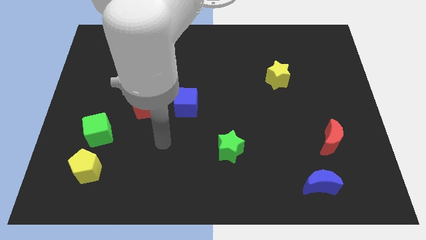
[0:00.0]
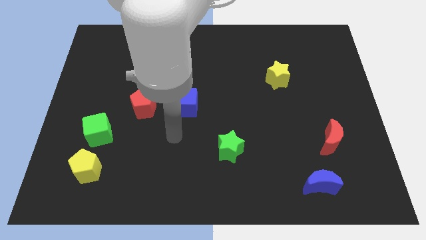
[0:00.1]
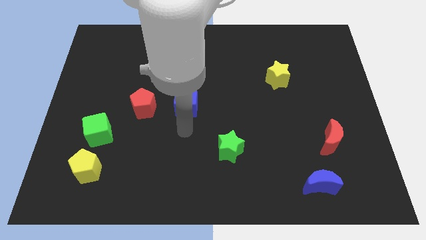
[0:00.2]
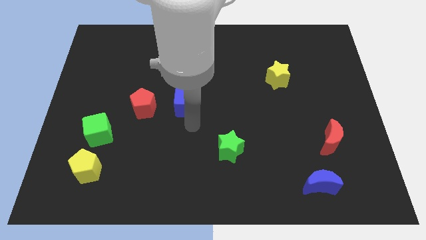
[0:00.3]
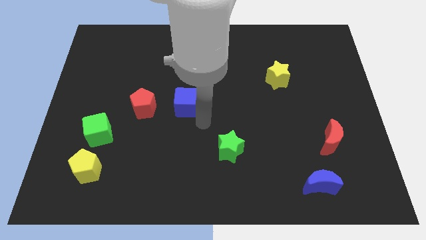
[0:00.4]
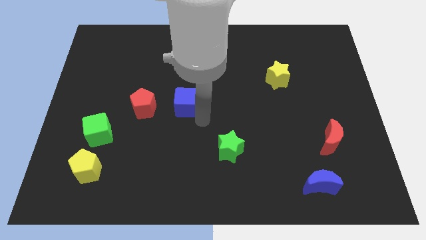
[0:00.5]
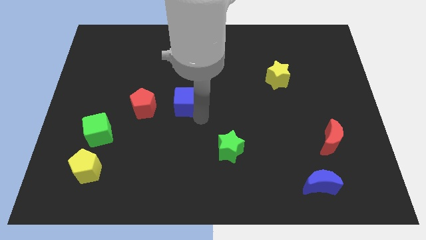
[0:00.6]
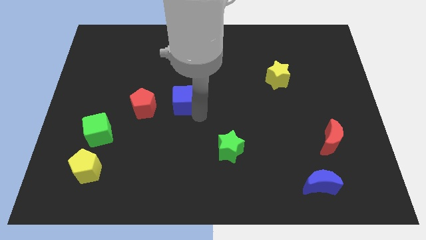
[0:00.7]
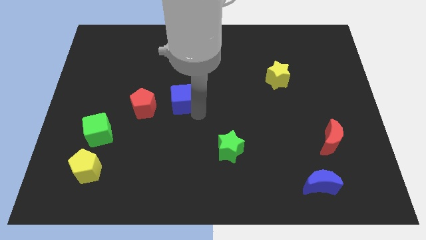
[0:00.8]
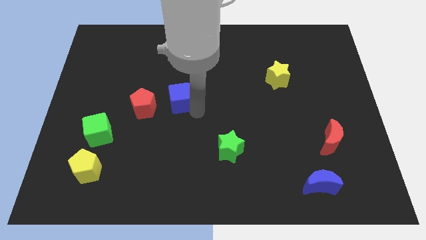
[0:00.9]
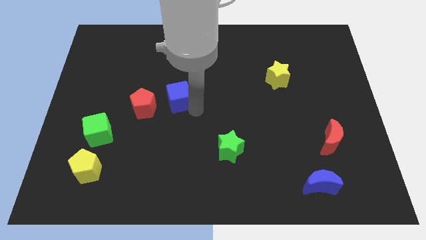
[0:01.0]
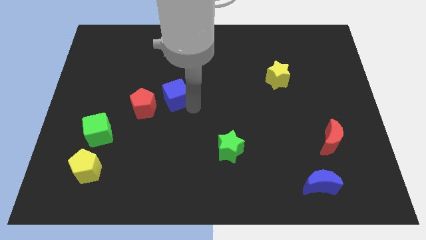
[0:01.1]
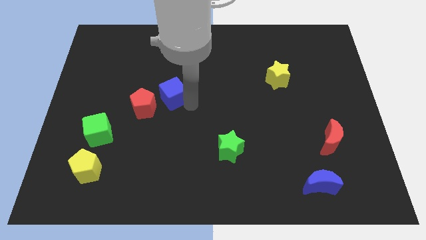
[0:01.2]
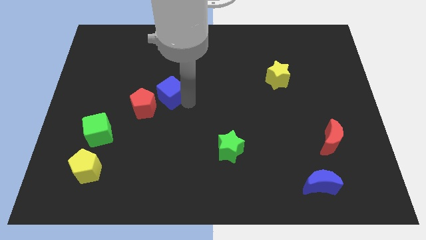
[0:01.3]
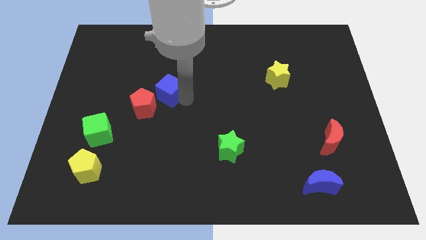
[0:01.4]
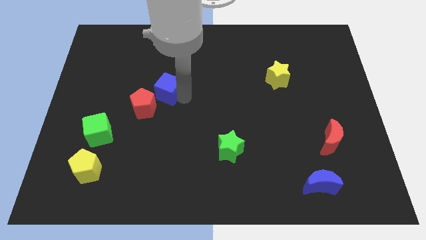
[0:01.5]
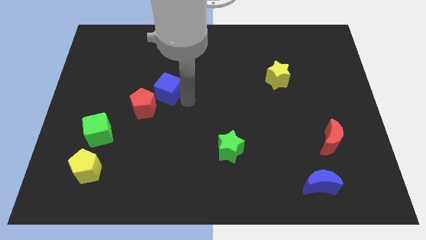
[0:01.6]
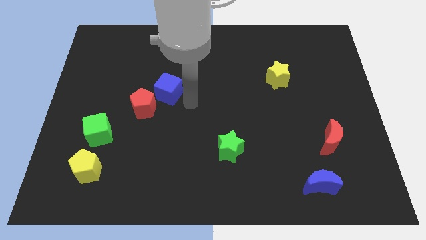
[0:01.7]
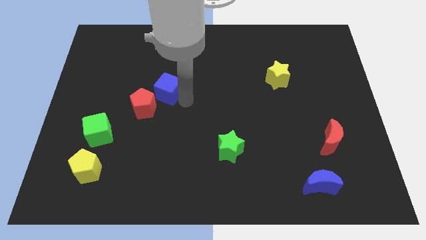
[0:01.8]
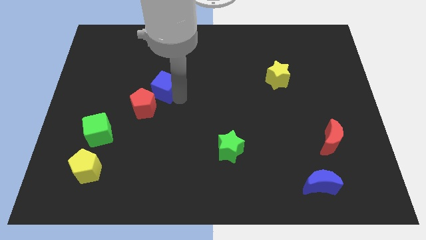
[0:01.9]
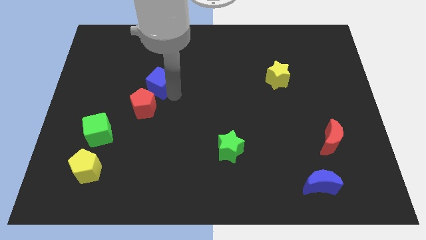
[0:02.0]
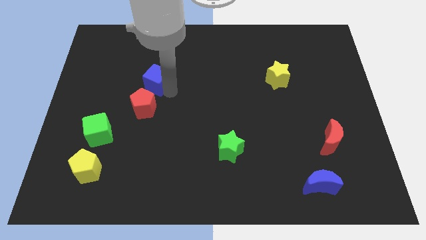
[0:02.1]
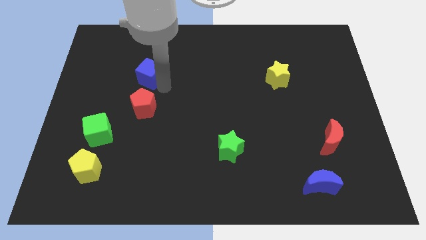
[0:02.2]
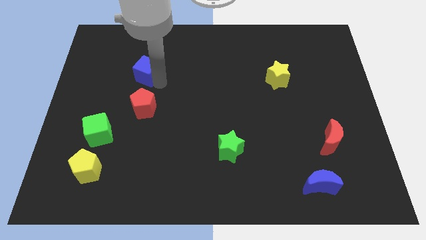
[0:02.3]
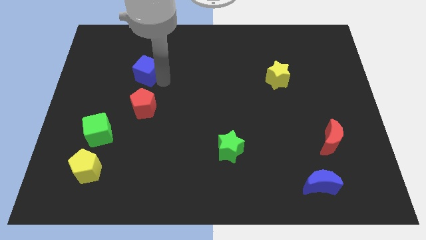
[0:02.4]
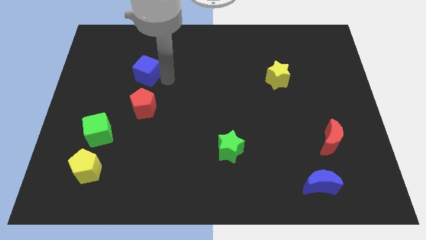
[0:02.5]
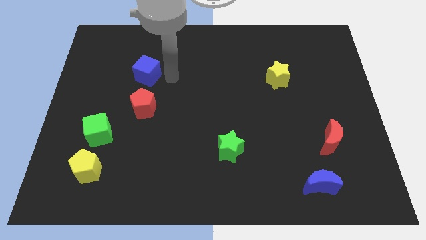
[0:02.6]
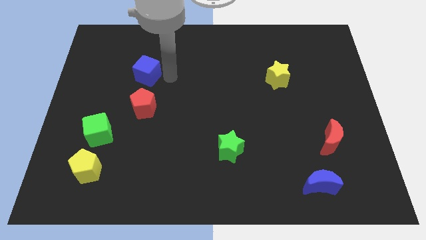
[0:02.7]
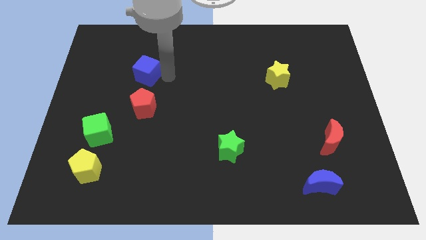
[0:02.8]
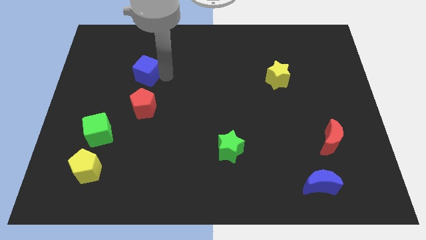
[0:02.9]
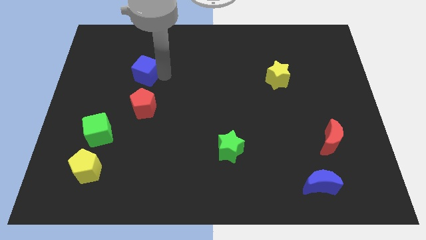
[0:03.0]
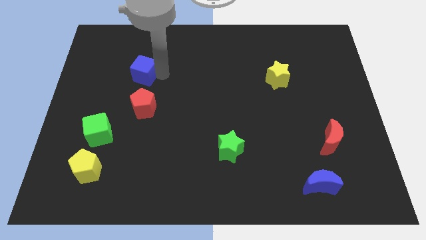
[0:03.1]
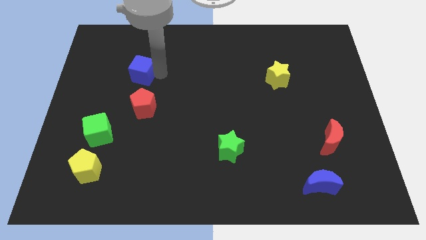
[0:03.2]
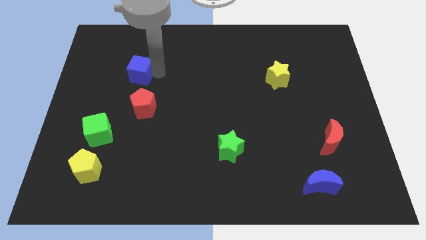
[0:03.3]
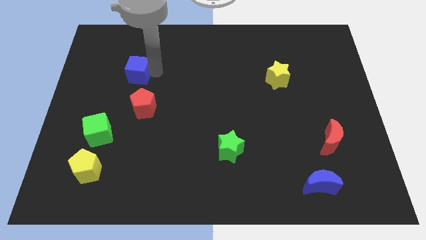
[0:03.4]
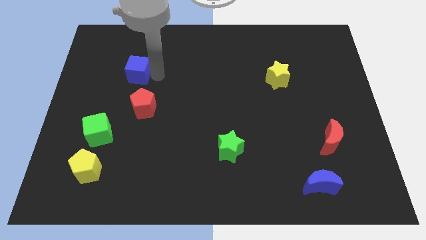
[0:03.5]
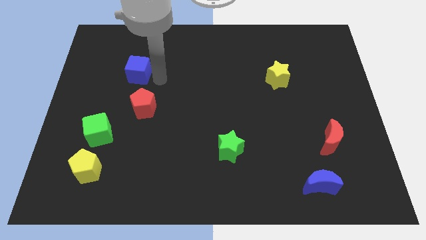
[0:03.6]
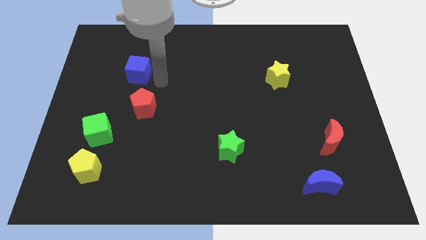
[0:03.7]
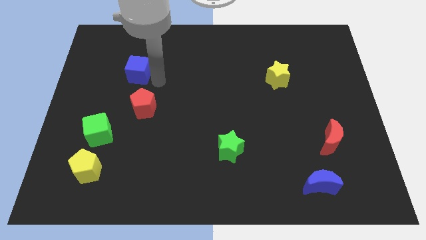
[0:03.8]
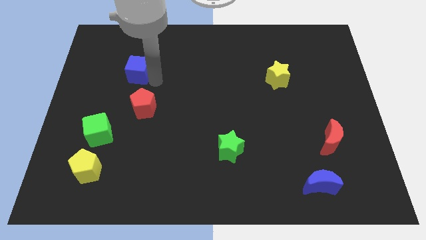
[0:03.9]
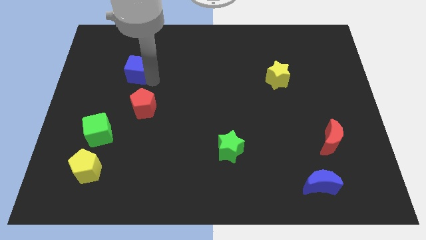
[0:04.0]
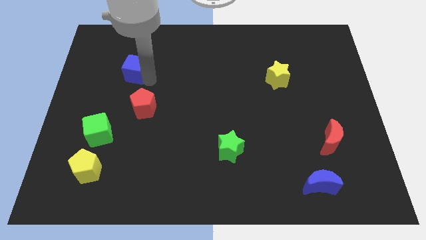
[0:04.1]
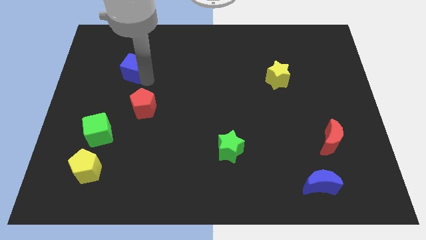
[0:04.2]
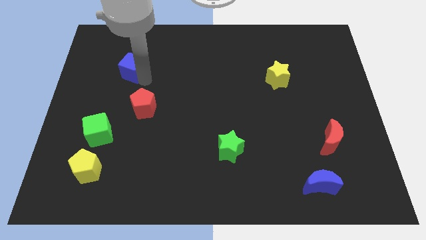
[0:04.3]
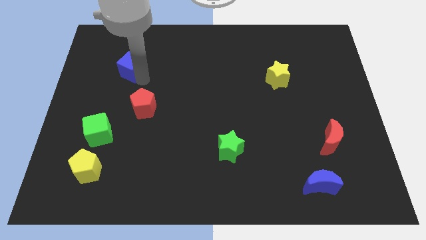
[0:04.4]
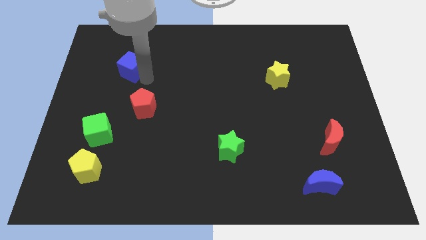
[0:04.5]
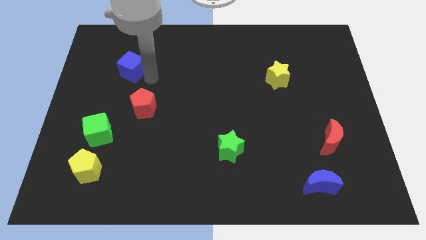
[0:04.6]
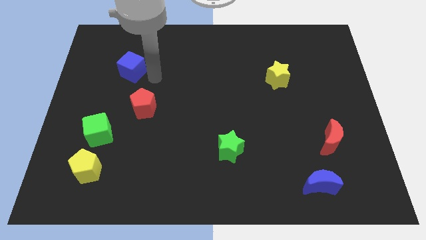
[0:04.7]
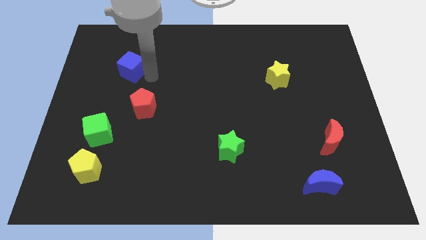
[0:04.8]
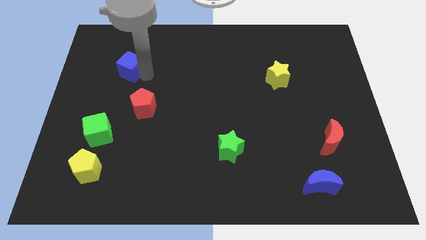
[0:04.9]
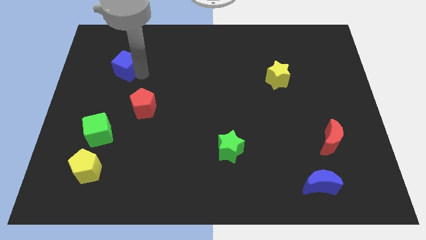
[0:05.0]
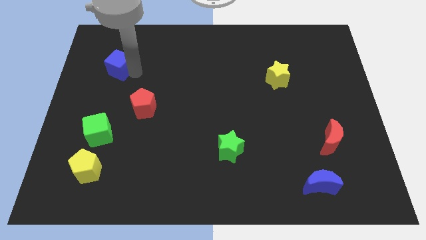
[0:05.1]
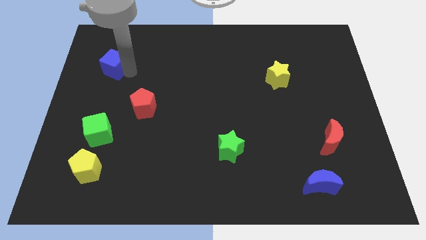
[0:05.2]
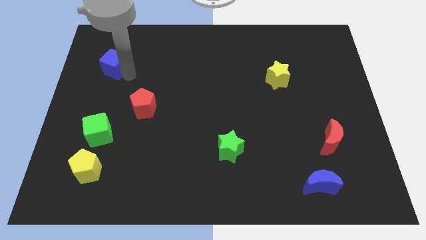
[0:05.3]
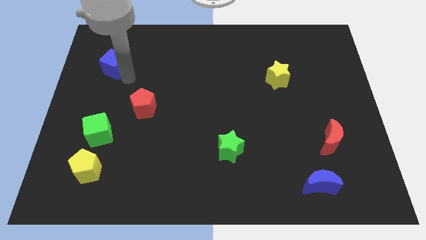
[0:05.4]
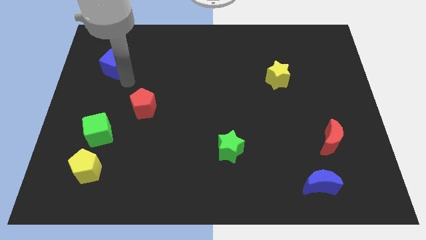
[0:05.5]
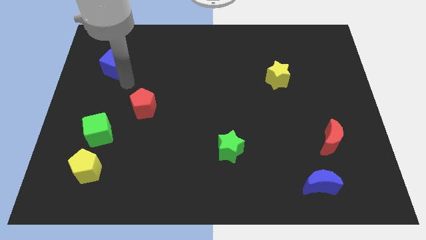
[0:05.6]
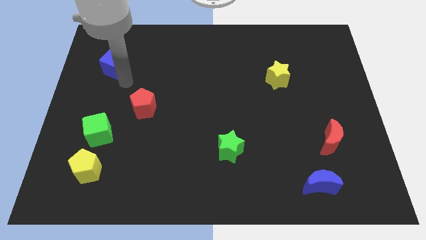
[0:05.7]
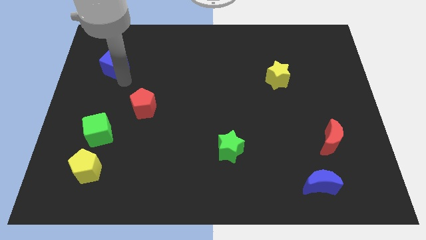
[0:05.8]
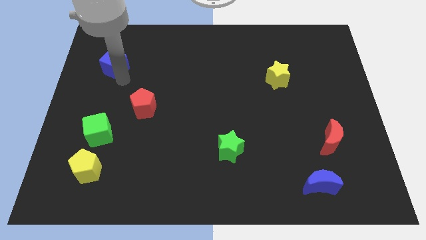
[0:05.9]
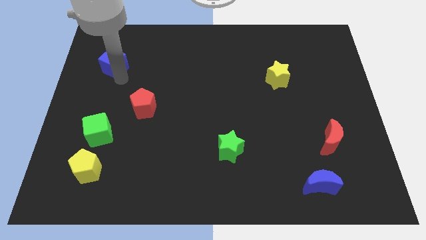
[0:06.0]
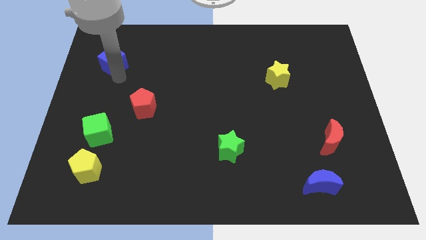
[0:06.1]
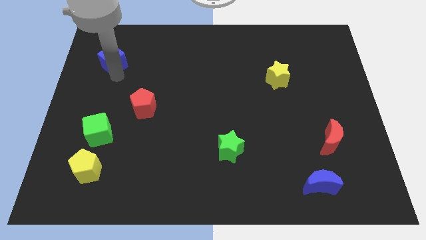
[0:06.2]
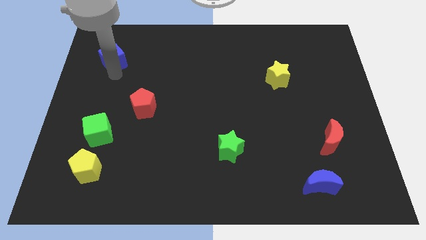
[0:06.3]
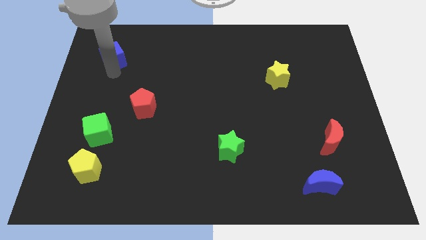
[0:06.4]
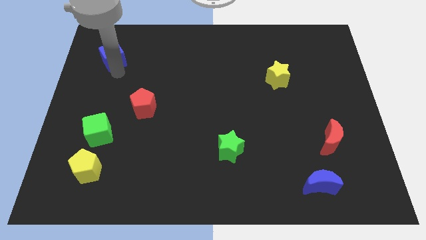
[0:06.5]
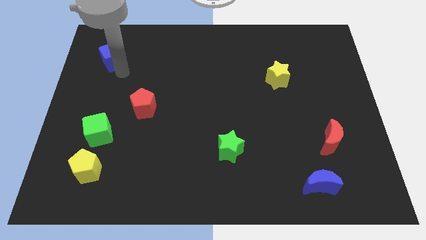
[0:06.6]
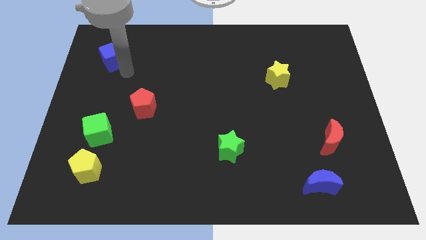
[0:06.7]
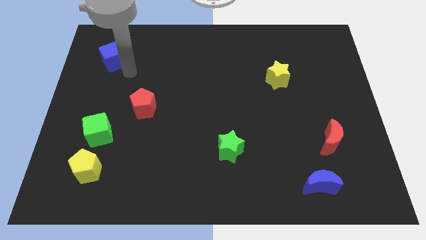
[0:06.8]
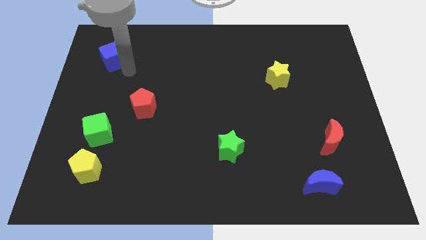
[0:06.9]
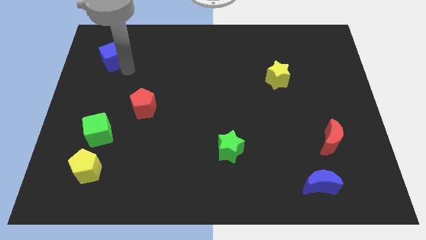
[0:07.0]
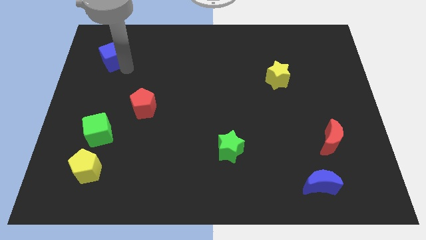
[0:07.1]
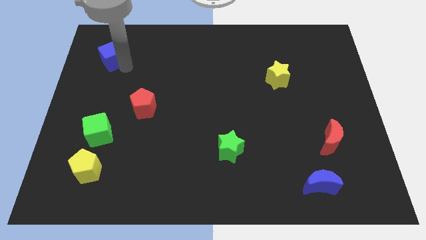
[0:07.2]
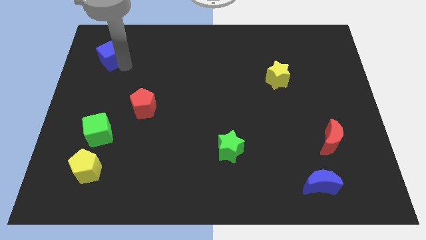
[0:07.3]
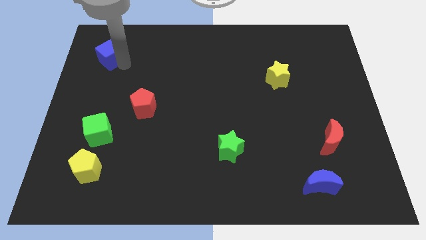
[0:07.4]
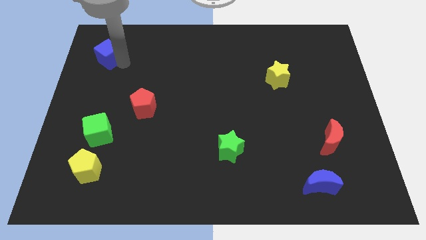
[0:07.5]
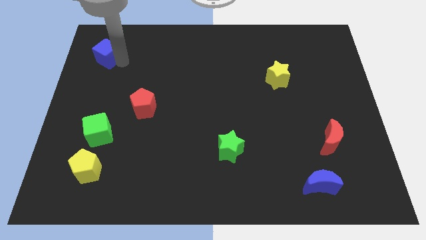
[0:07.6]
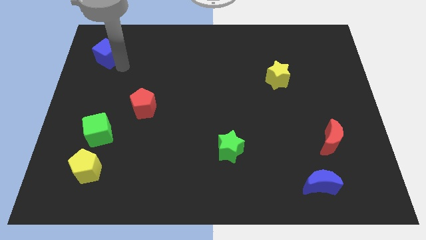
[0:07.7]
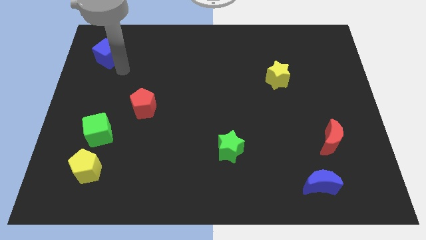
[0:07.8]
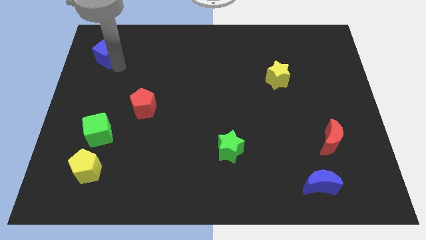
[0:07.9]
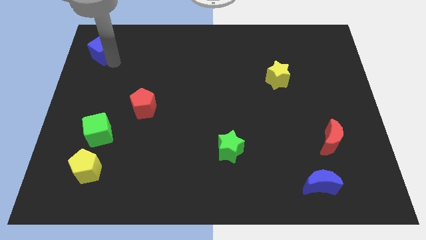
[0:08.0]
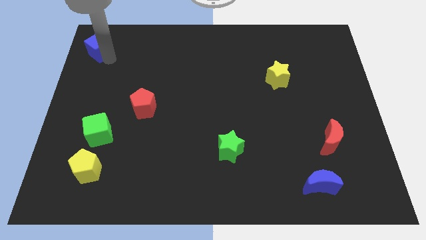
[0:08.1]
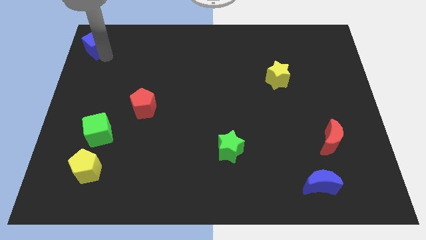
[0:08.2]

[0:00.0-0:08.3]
put the blue cube to the upper left corner
